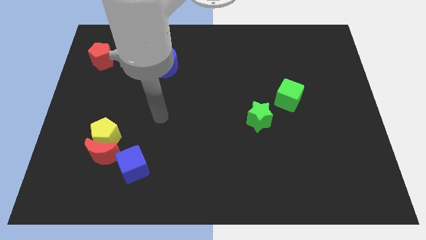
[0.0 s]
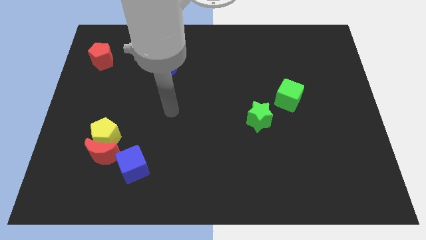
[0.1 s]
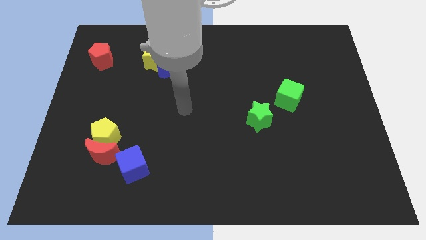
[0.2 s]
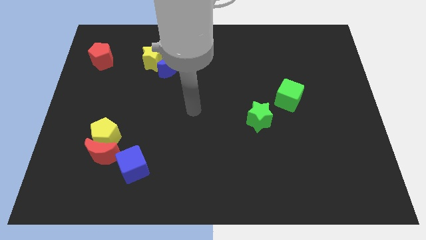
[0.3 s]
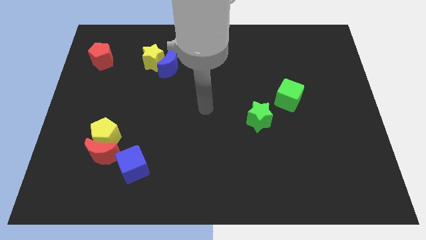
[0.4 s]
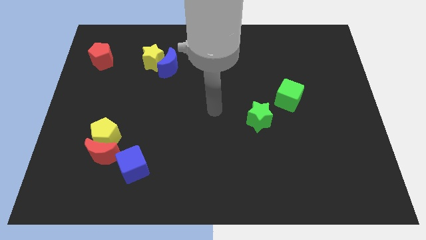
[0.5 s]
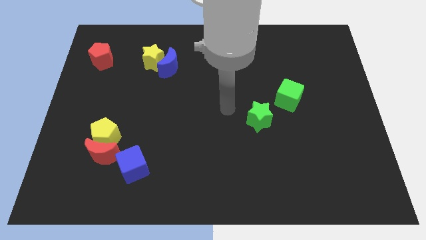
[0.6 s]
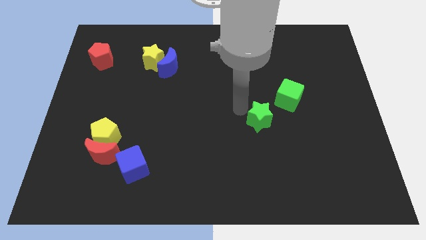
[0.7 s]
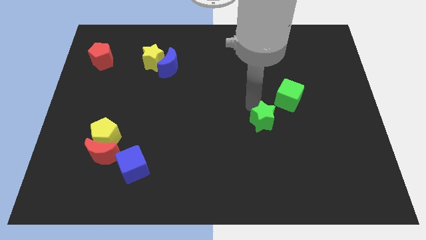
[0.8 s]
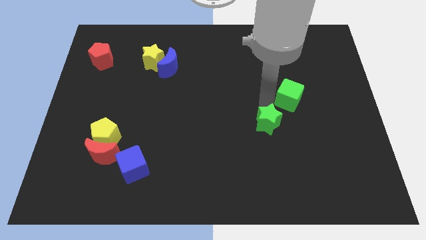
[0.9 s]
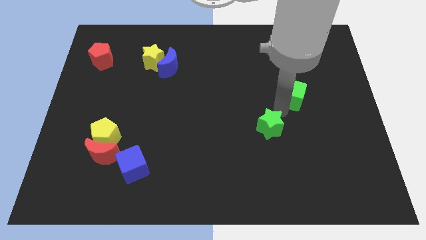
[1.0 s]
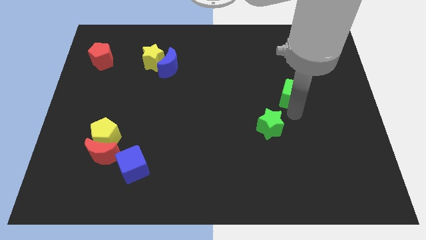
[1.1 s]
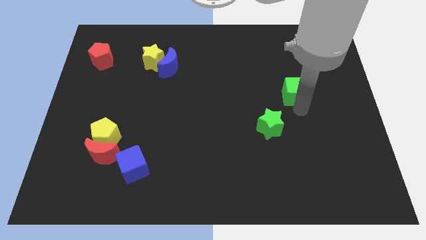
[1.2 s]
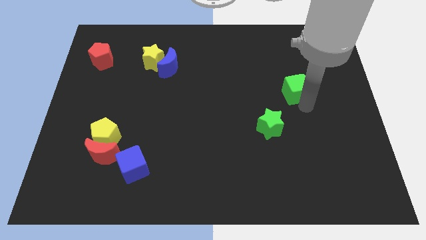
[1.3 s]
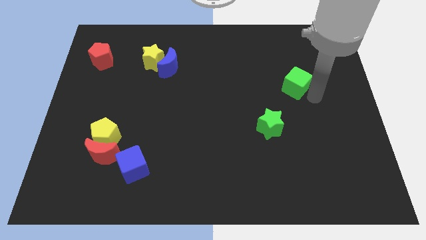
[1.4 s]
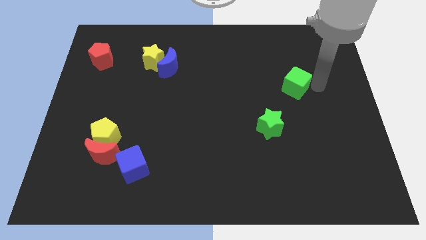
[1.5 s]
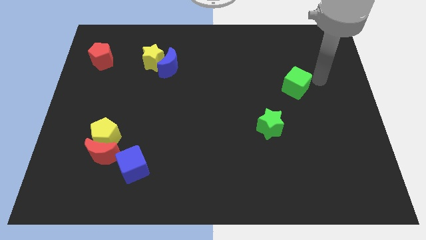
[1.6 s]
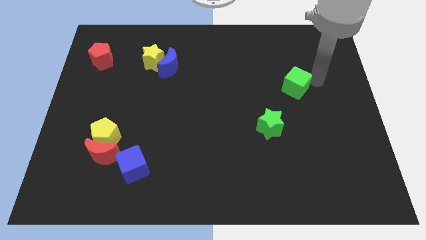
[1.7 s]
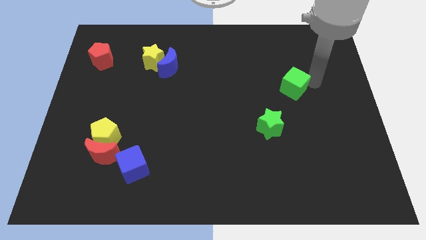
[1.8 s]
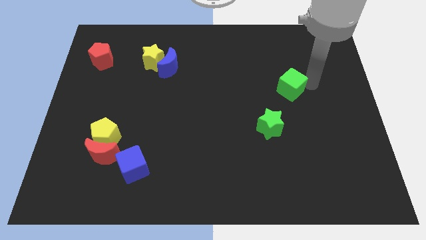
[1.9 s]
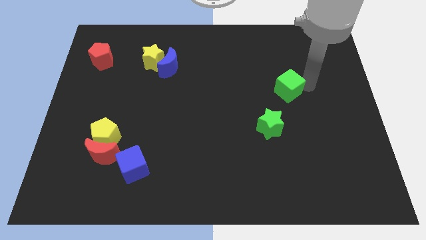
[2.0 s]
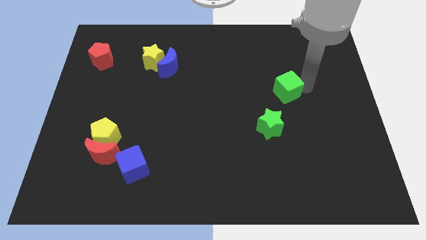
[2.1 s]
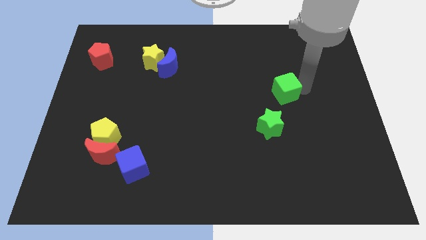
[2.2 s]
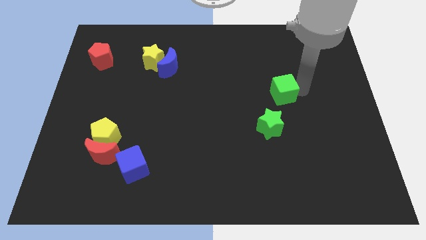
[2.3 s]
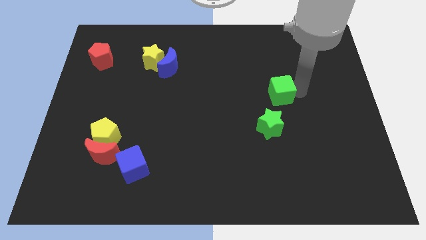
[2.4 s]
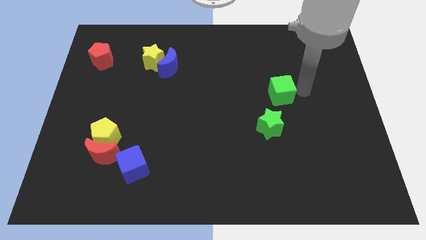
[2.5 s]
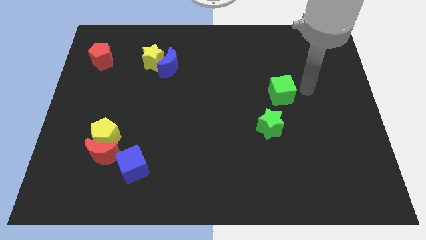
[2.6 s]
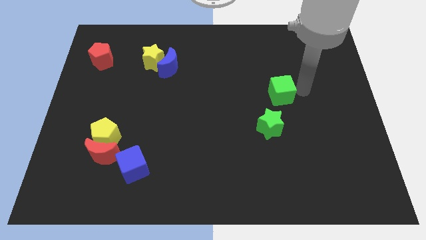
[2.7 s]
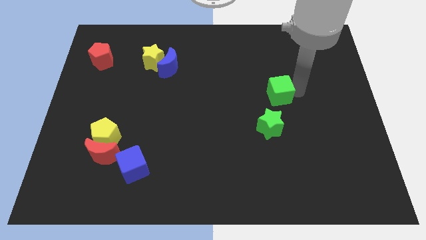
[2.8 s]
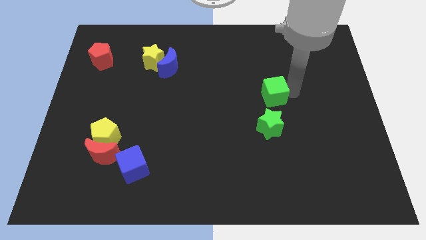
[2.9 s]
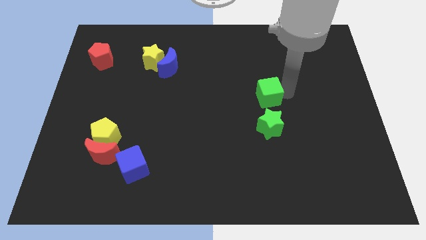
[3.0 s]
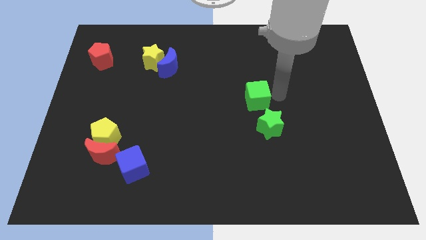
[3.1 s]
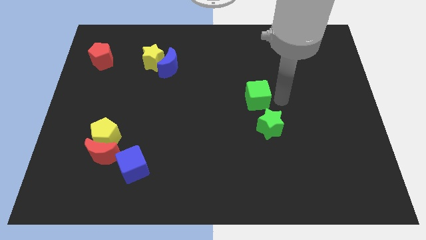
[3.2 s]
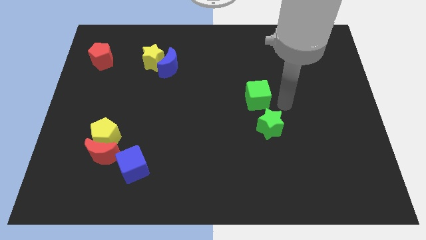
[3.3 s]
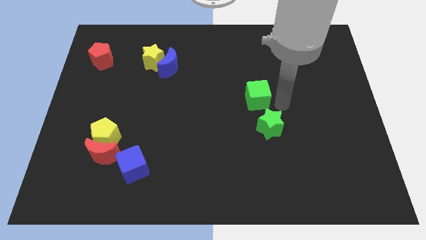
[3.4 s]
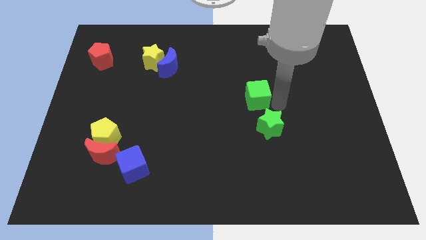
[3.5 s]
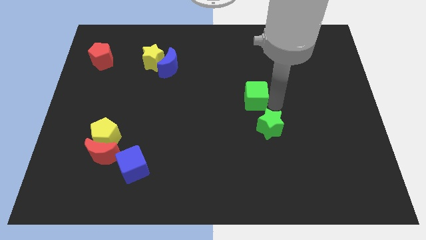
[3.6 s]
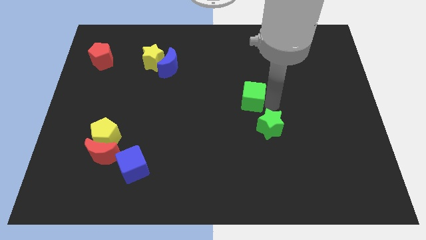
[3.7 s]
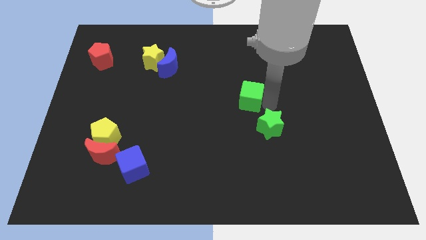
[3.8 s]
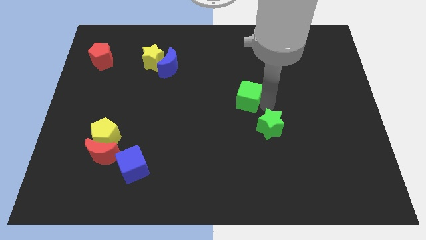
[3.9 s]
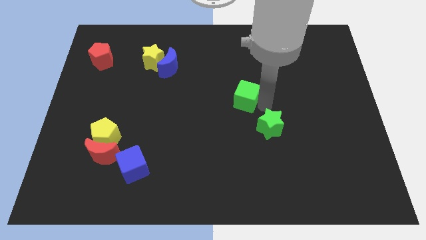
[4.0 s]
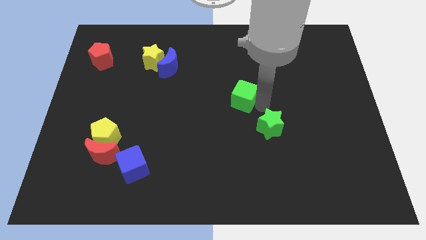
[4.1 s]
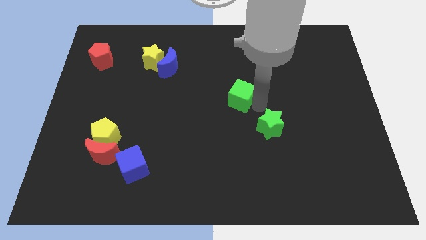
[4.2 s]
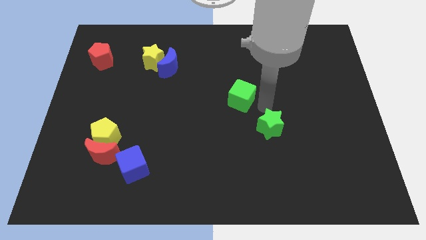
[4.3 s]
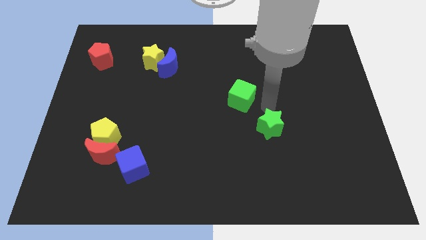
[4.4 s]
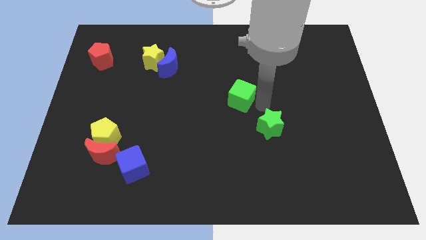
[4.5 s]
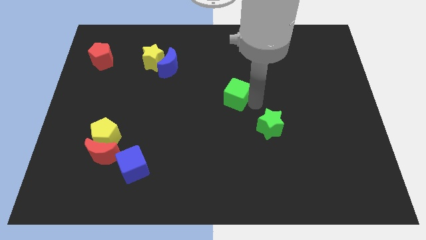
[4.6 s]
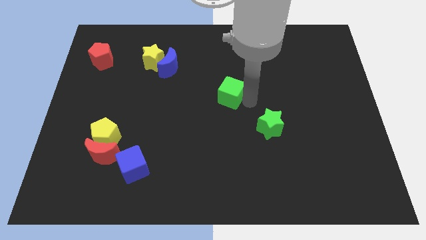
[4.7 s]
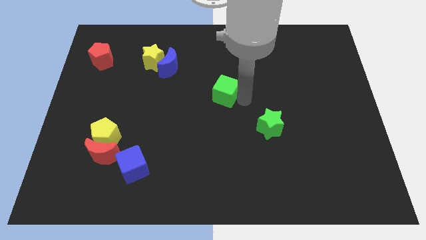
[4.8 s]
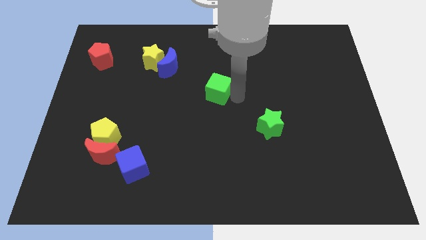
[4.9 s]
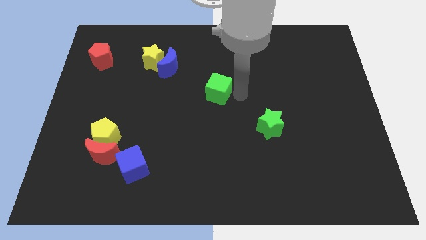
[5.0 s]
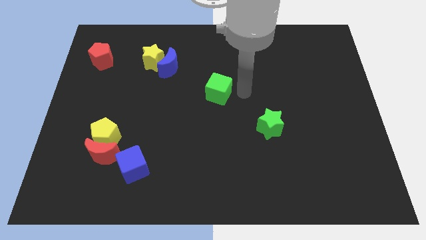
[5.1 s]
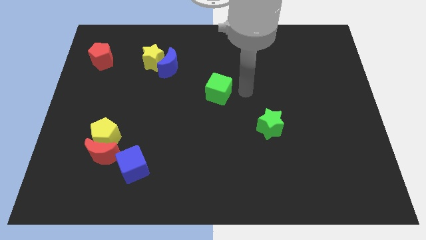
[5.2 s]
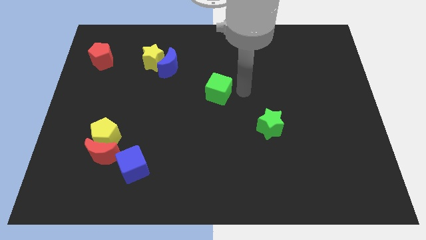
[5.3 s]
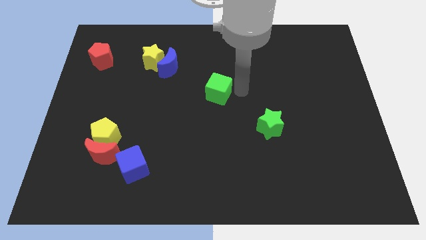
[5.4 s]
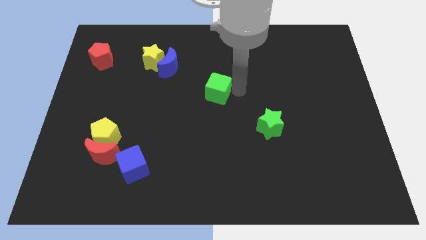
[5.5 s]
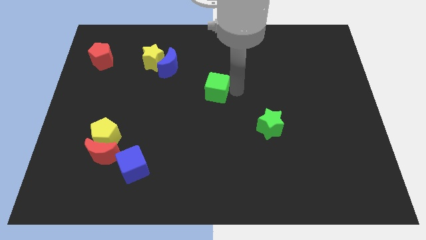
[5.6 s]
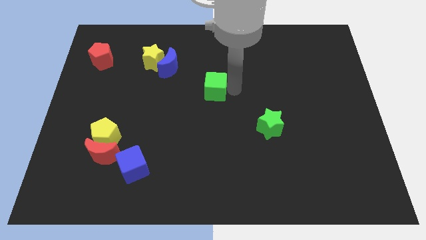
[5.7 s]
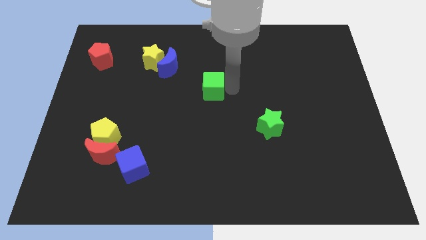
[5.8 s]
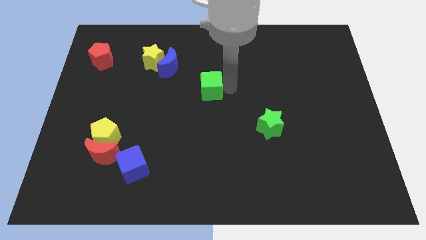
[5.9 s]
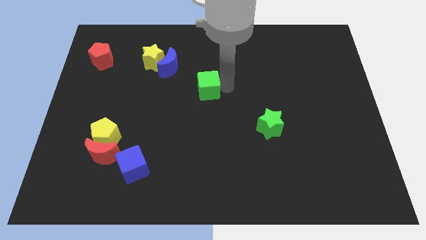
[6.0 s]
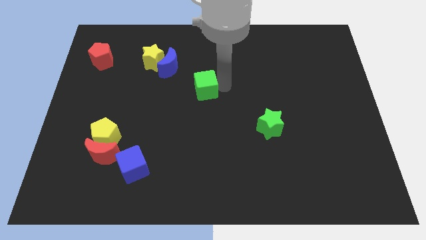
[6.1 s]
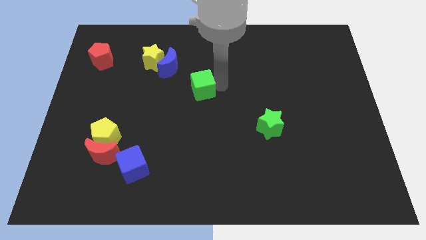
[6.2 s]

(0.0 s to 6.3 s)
move the green cube to the left

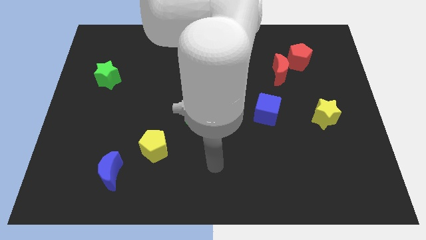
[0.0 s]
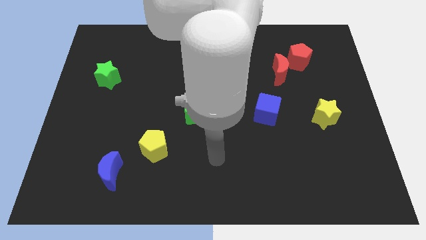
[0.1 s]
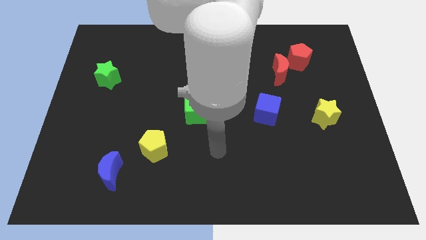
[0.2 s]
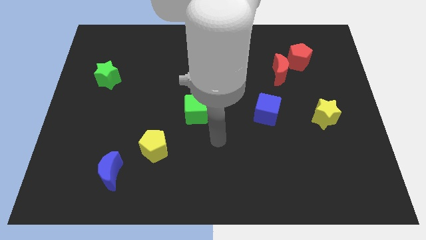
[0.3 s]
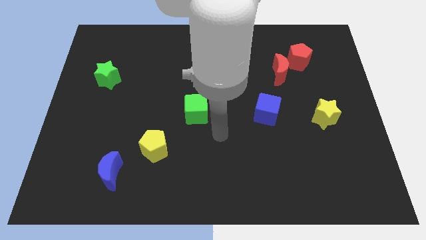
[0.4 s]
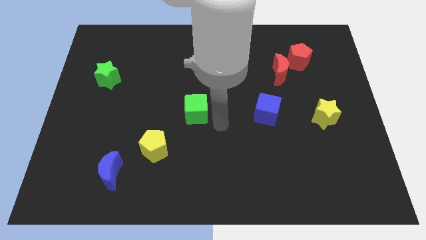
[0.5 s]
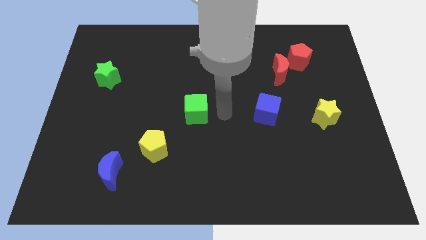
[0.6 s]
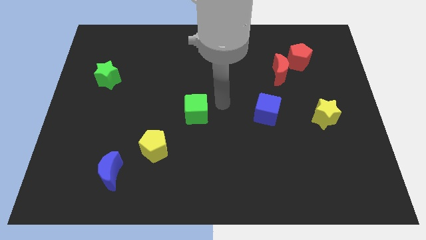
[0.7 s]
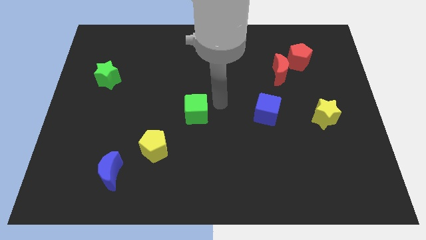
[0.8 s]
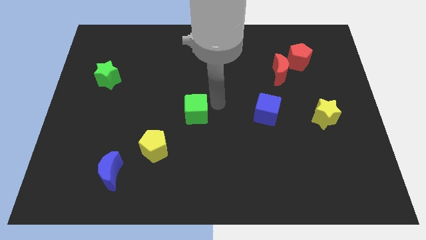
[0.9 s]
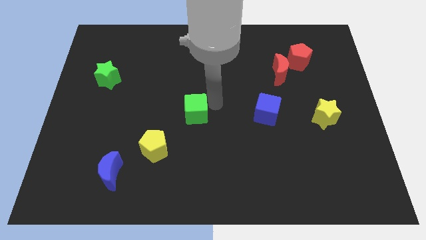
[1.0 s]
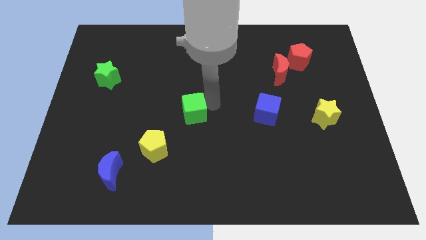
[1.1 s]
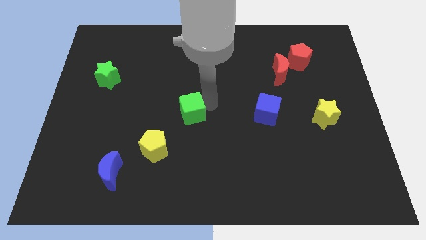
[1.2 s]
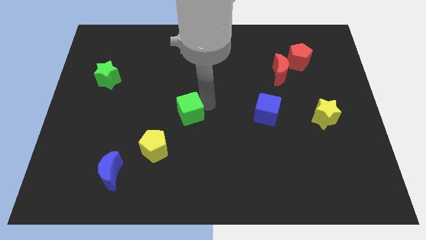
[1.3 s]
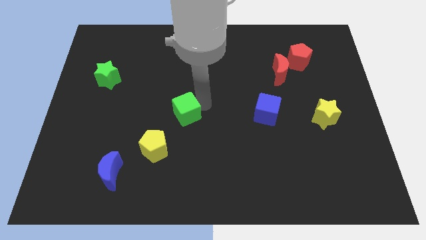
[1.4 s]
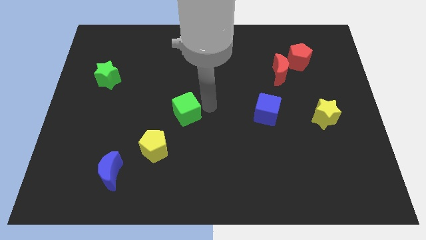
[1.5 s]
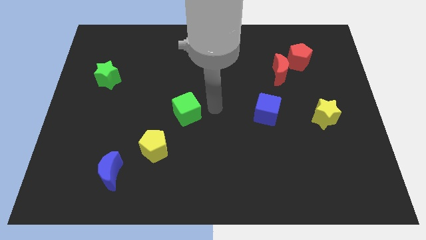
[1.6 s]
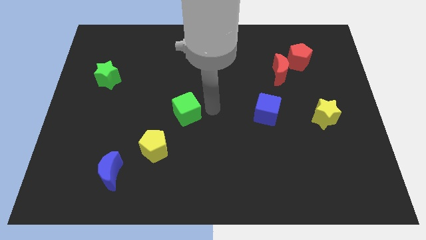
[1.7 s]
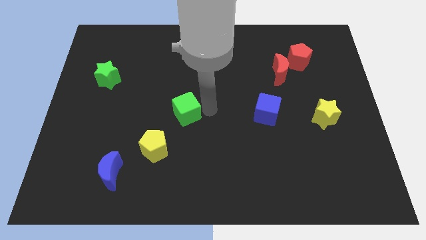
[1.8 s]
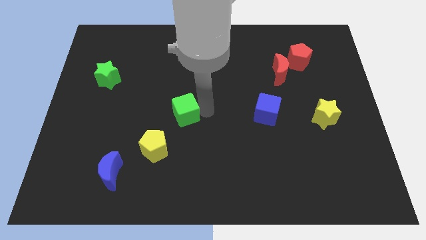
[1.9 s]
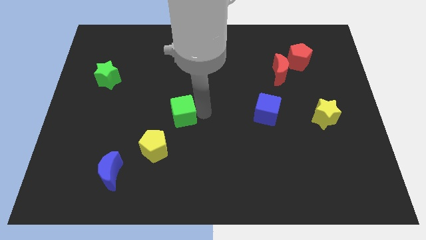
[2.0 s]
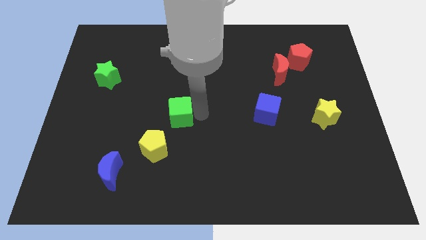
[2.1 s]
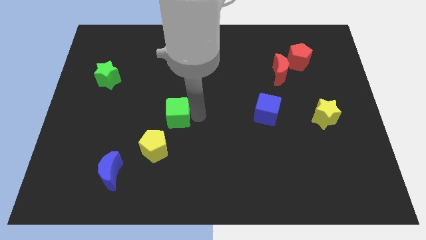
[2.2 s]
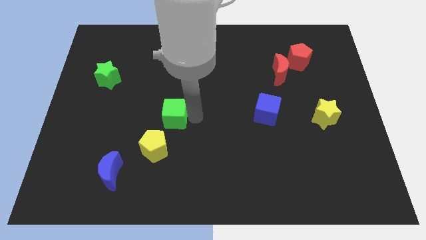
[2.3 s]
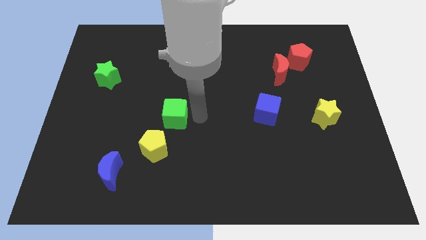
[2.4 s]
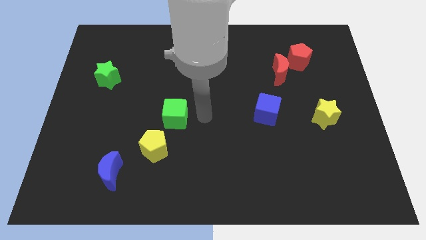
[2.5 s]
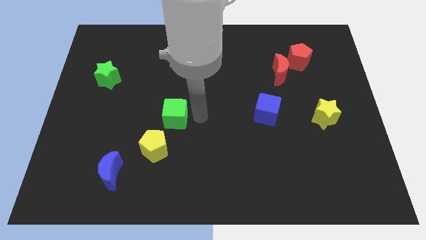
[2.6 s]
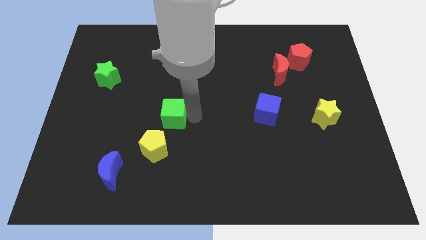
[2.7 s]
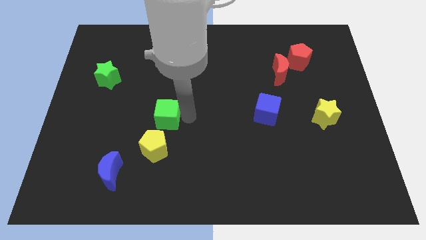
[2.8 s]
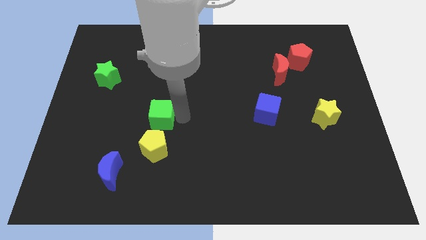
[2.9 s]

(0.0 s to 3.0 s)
slide the green cube a little bit to the left
